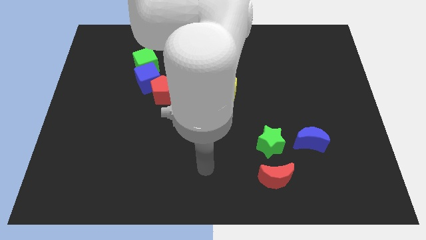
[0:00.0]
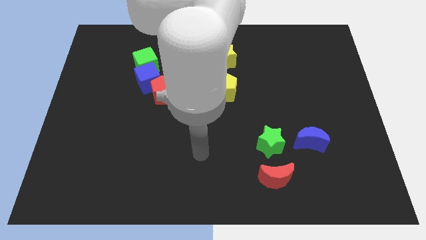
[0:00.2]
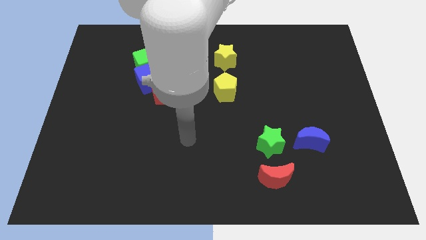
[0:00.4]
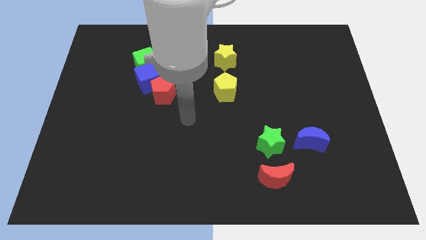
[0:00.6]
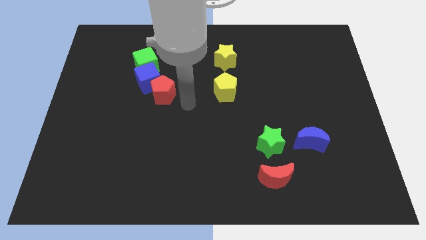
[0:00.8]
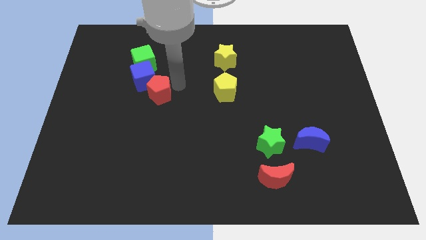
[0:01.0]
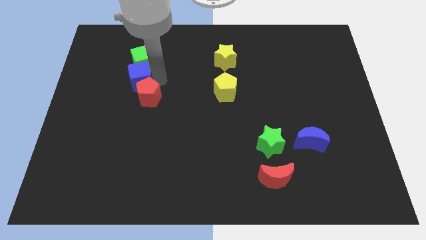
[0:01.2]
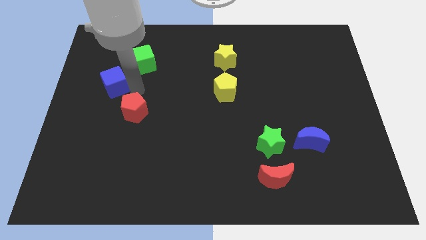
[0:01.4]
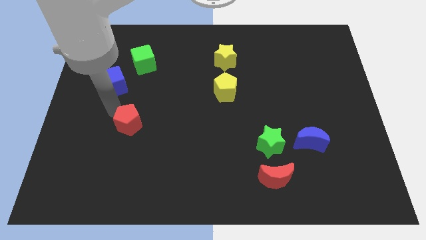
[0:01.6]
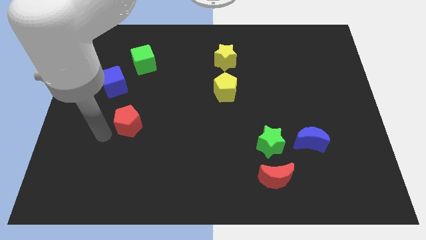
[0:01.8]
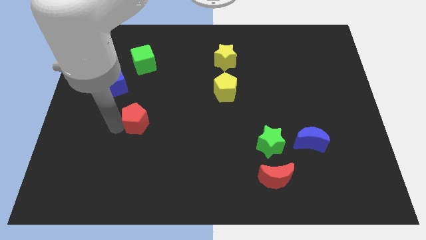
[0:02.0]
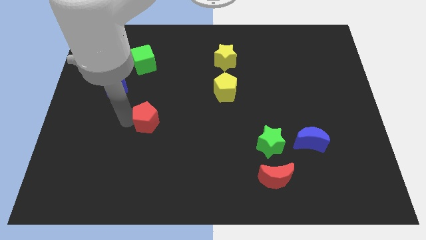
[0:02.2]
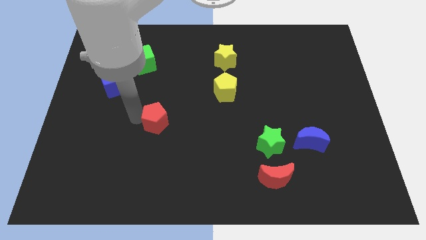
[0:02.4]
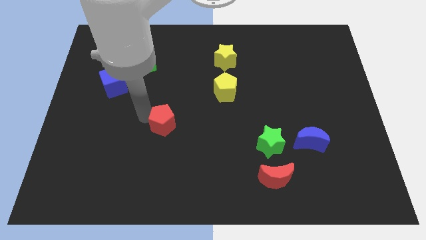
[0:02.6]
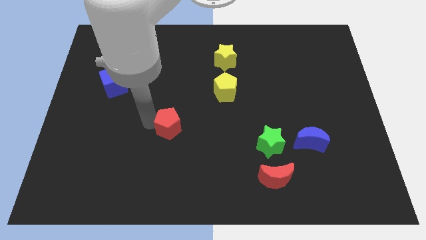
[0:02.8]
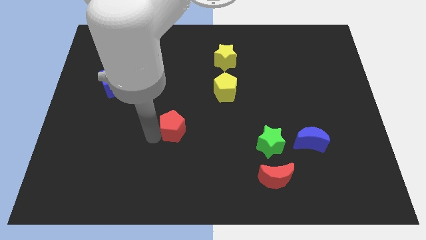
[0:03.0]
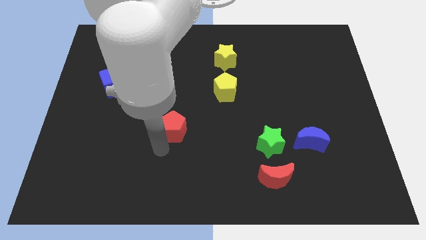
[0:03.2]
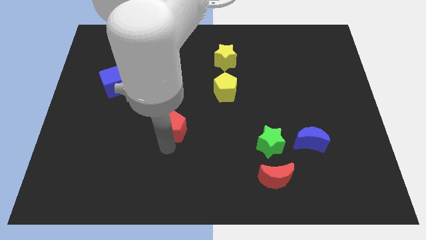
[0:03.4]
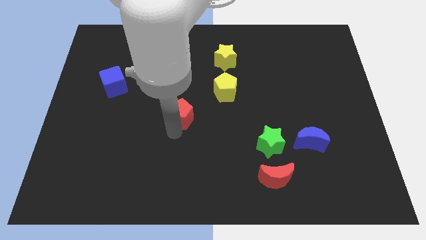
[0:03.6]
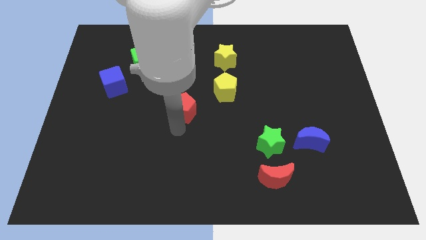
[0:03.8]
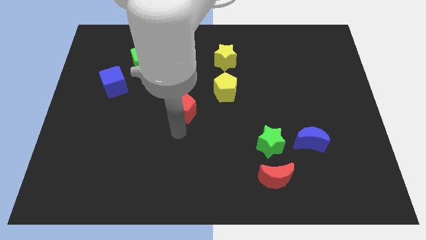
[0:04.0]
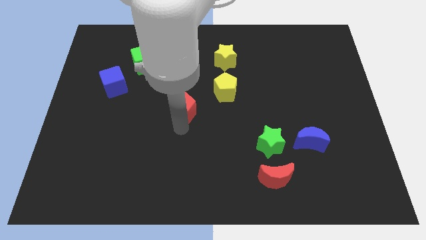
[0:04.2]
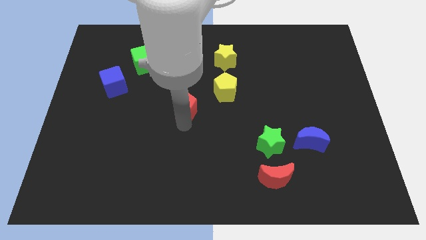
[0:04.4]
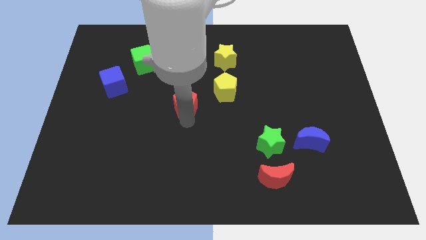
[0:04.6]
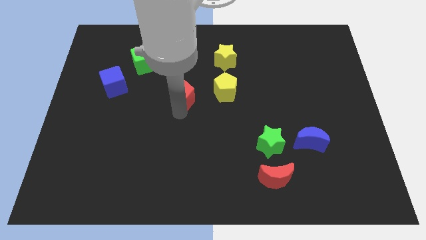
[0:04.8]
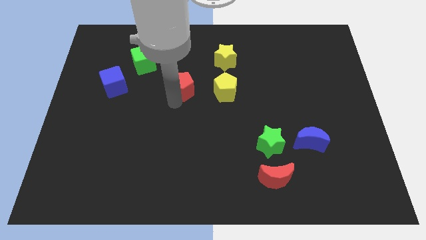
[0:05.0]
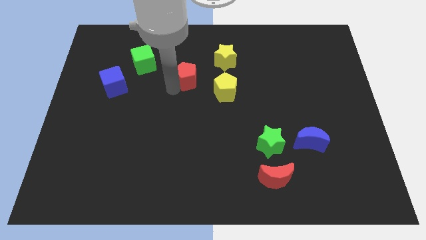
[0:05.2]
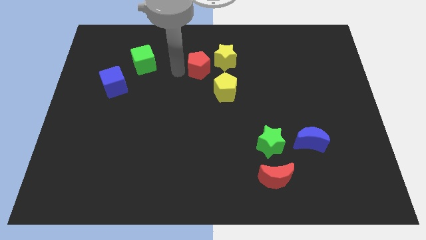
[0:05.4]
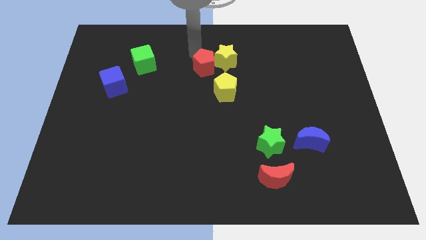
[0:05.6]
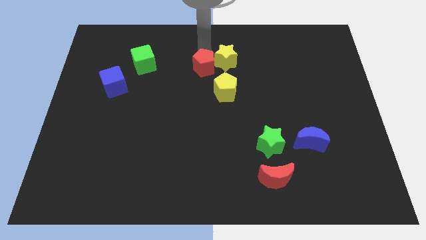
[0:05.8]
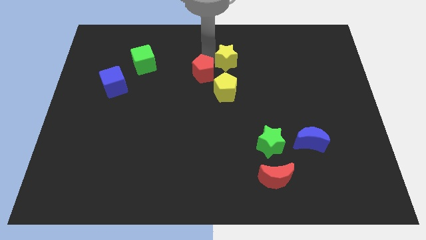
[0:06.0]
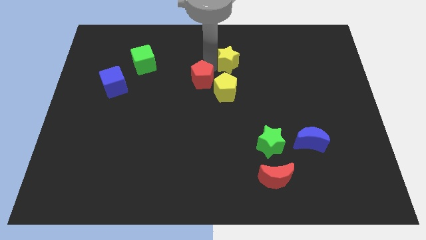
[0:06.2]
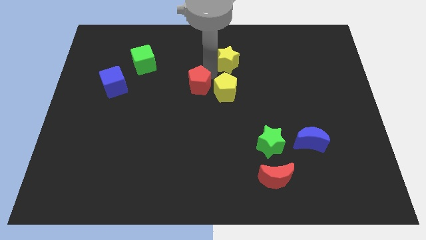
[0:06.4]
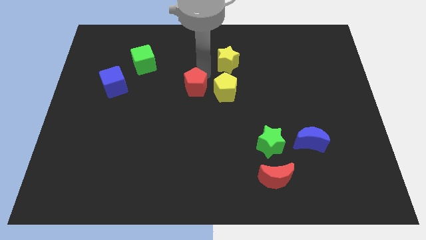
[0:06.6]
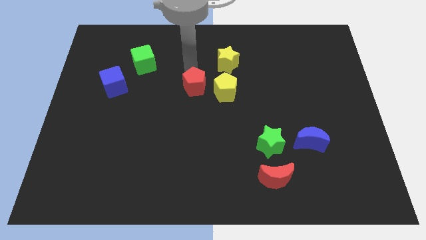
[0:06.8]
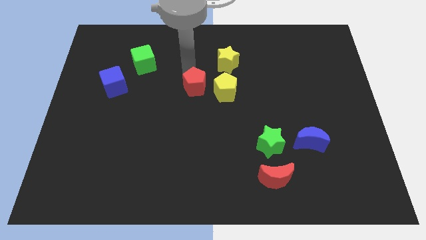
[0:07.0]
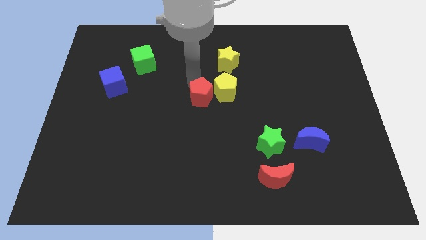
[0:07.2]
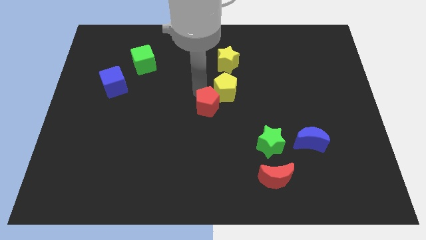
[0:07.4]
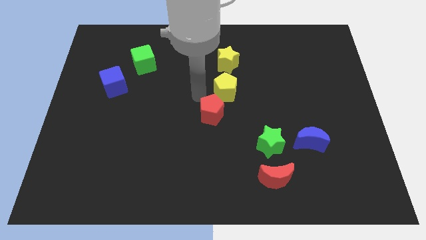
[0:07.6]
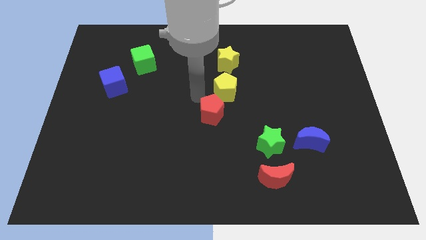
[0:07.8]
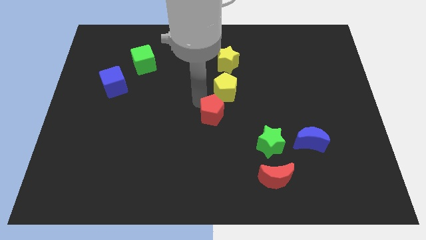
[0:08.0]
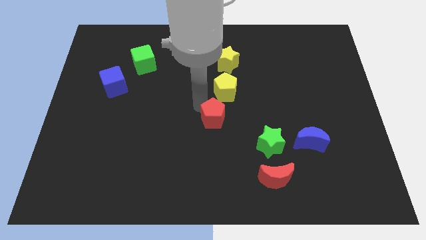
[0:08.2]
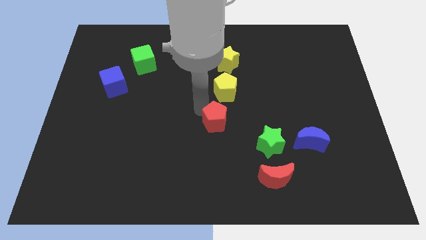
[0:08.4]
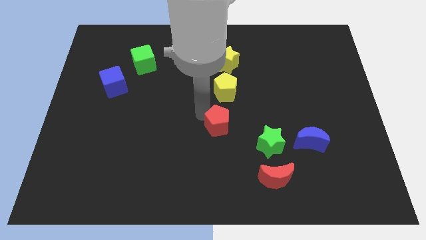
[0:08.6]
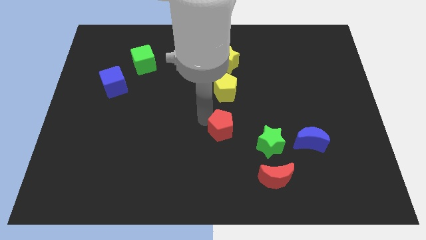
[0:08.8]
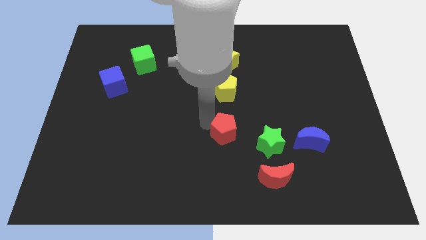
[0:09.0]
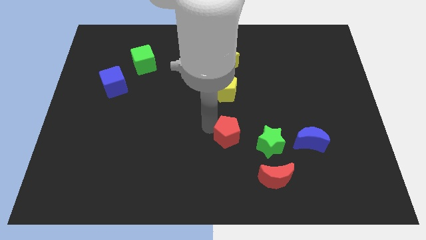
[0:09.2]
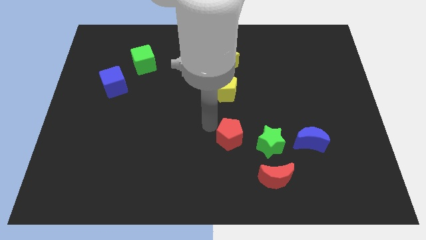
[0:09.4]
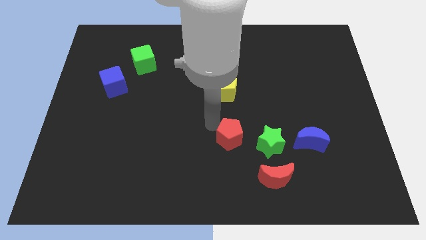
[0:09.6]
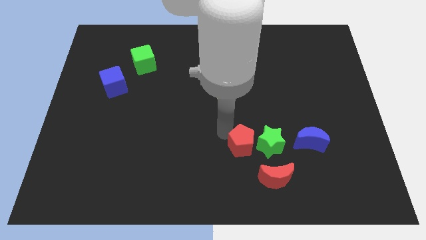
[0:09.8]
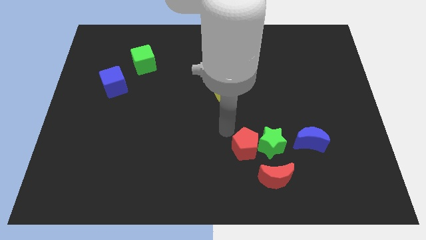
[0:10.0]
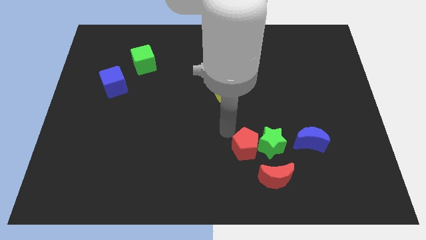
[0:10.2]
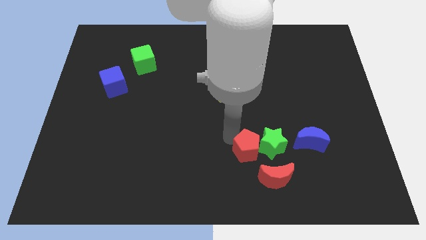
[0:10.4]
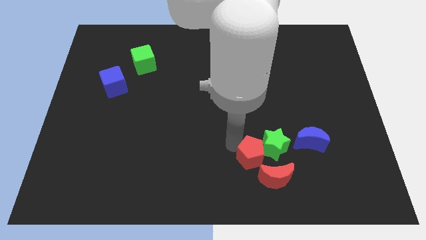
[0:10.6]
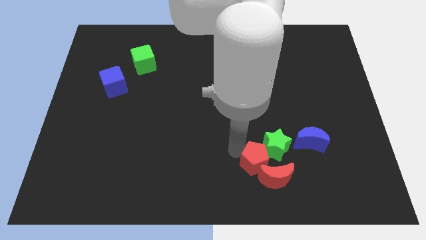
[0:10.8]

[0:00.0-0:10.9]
push the red pentagon towards the red moon

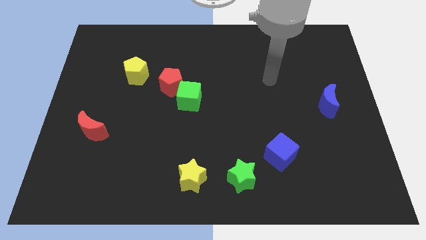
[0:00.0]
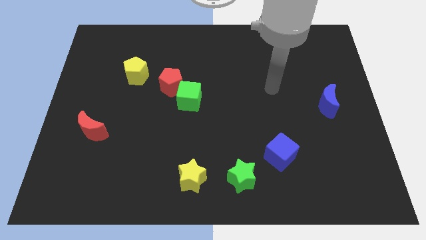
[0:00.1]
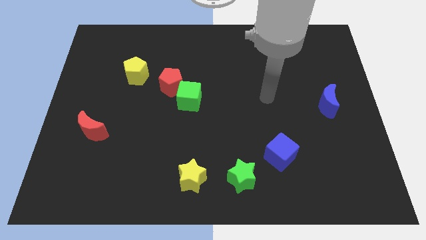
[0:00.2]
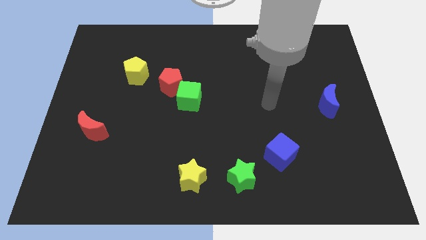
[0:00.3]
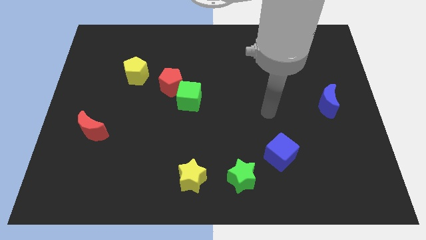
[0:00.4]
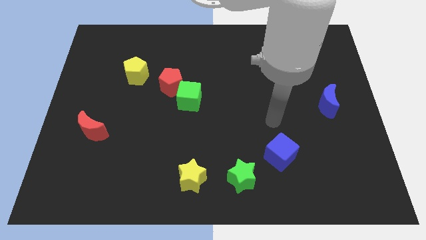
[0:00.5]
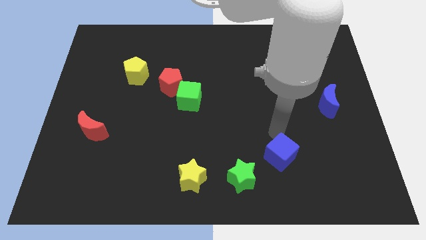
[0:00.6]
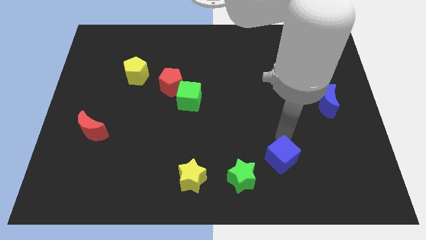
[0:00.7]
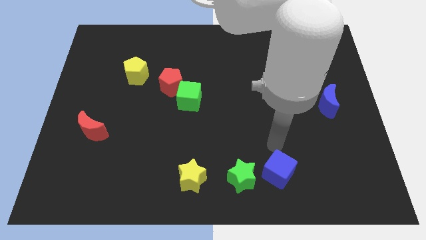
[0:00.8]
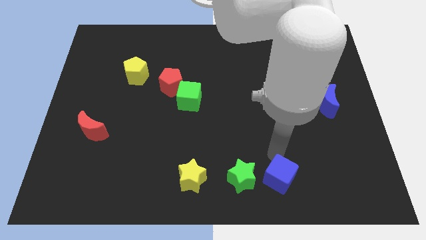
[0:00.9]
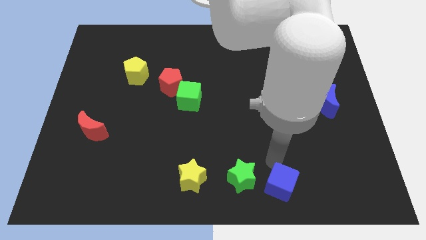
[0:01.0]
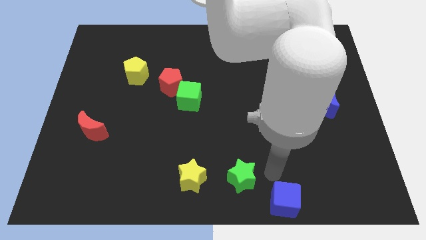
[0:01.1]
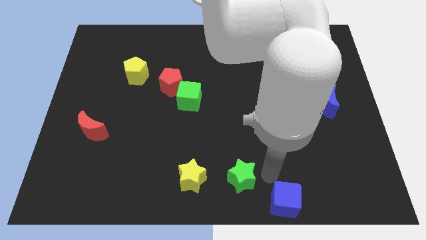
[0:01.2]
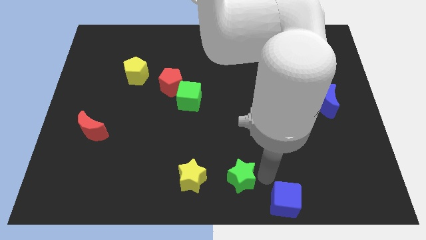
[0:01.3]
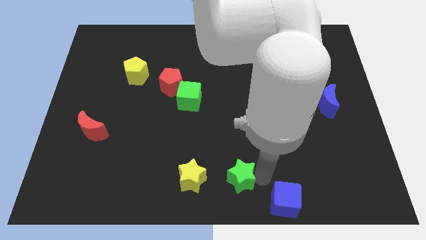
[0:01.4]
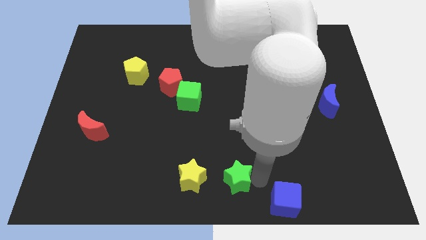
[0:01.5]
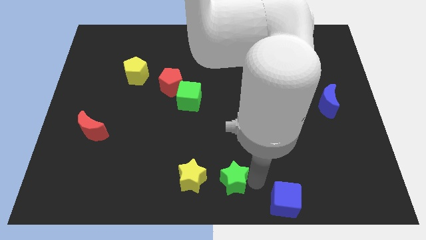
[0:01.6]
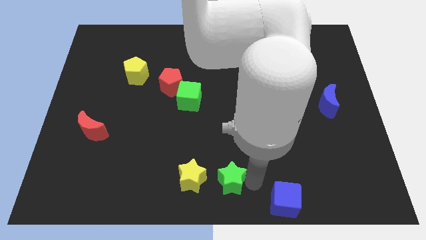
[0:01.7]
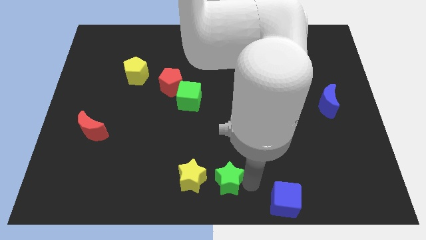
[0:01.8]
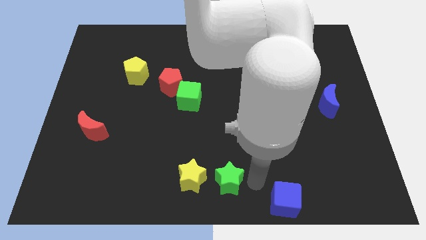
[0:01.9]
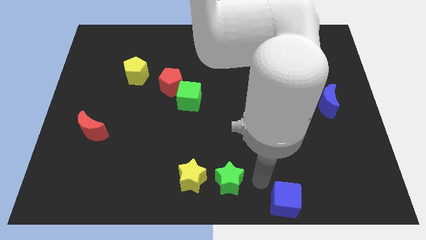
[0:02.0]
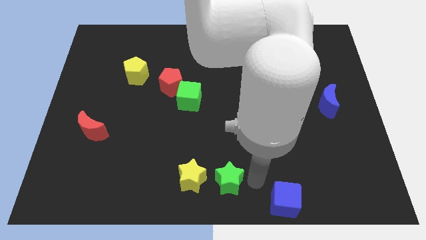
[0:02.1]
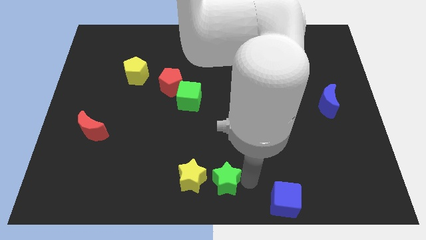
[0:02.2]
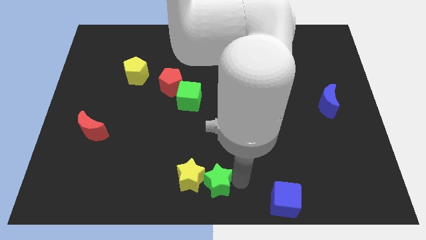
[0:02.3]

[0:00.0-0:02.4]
push the green star towards the yellow star
